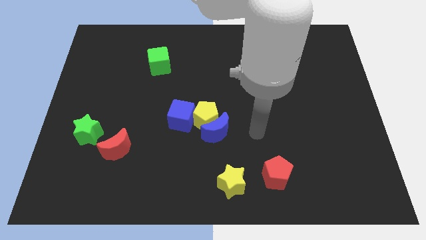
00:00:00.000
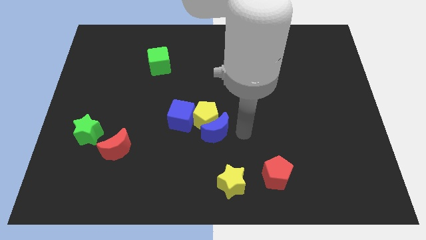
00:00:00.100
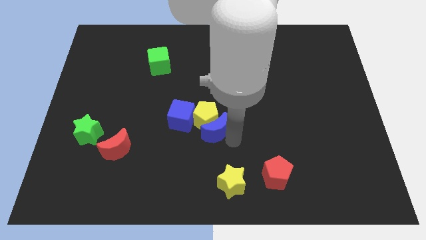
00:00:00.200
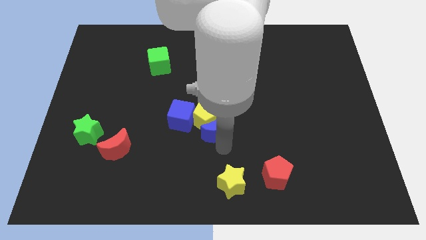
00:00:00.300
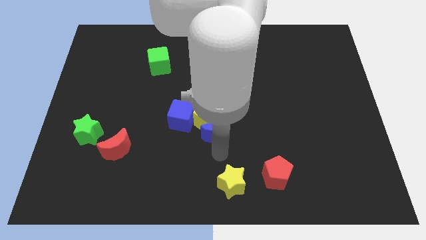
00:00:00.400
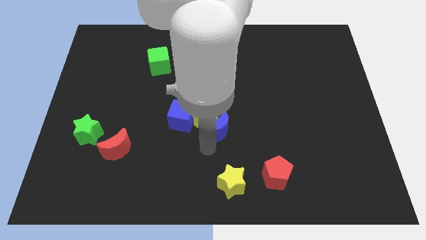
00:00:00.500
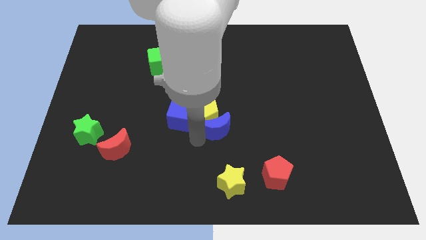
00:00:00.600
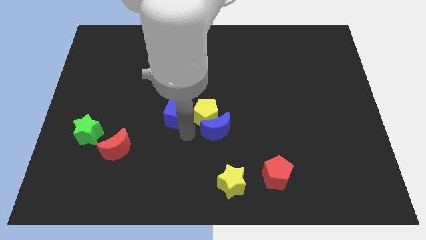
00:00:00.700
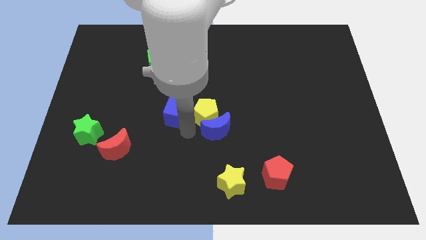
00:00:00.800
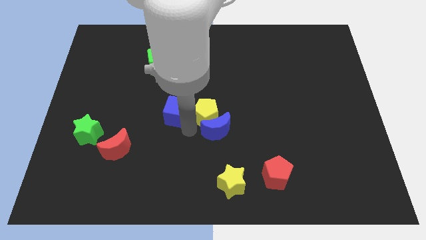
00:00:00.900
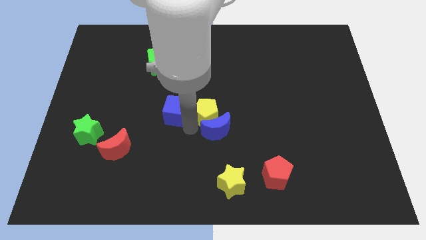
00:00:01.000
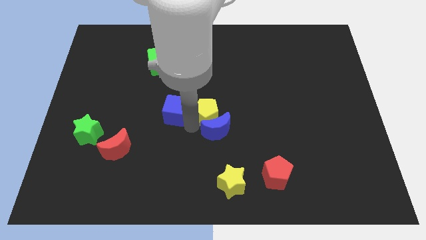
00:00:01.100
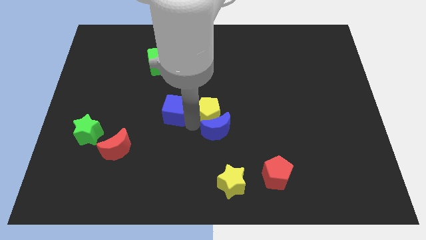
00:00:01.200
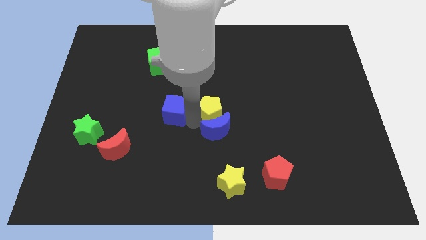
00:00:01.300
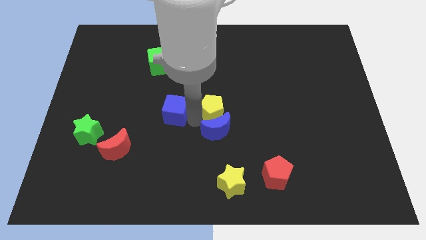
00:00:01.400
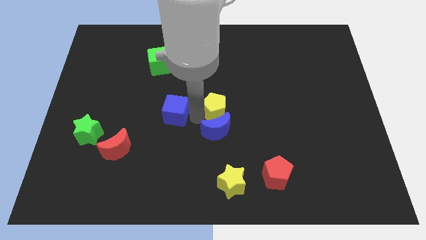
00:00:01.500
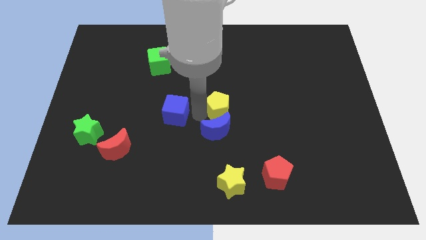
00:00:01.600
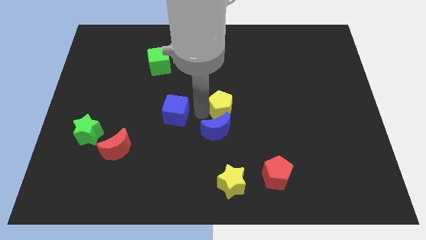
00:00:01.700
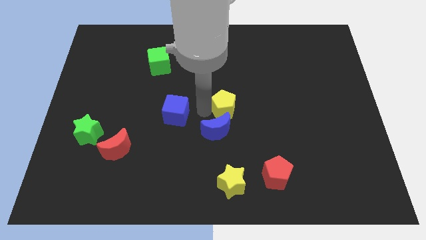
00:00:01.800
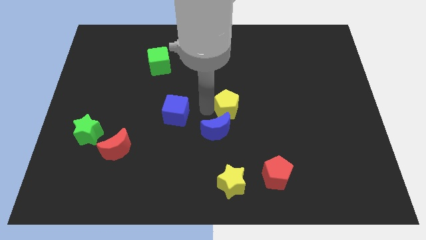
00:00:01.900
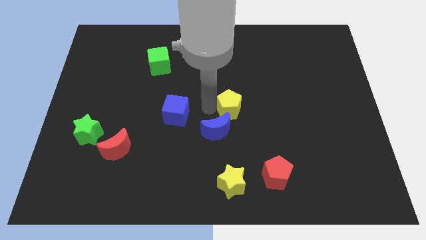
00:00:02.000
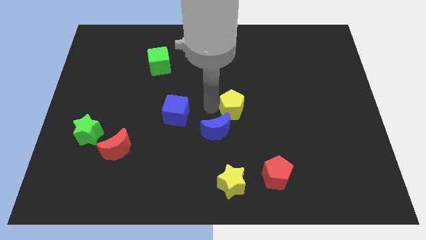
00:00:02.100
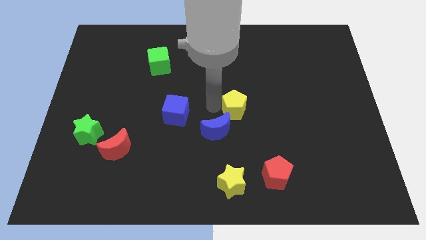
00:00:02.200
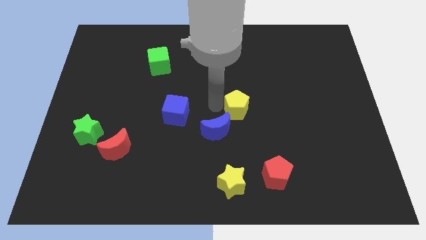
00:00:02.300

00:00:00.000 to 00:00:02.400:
move the yellow pentagon away from the blue moon and blue cube

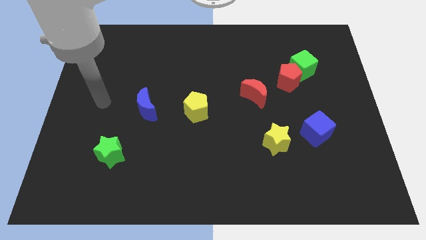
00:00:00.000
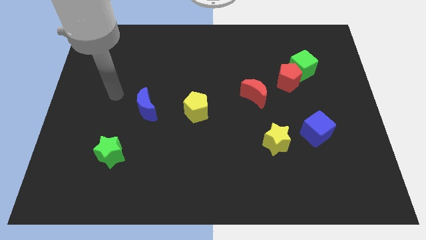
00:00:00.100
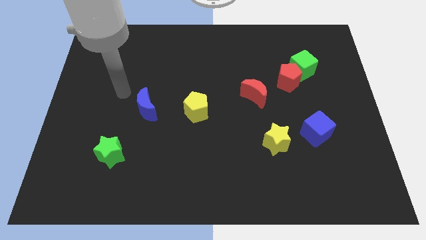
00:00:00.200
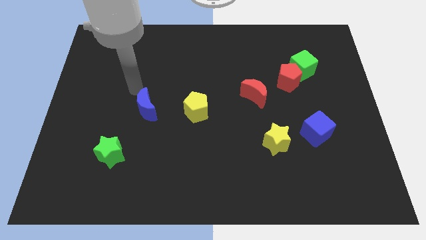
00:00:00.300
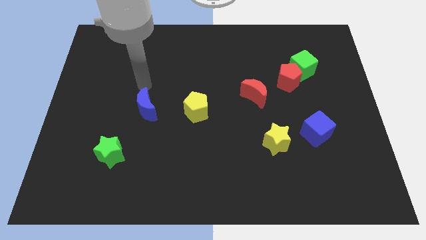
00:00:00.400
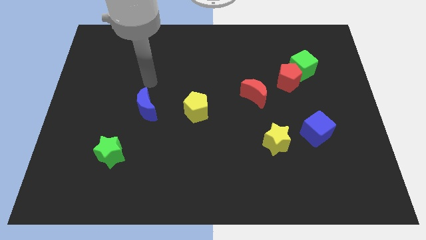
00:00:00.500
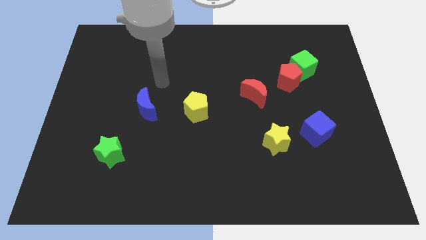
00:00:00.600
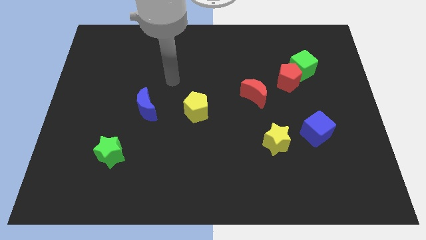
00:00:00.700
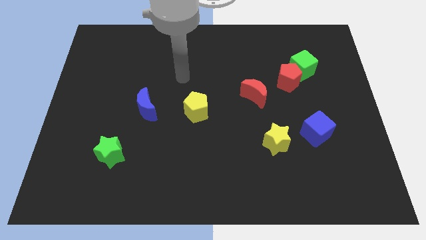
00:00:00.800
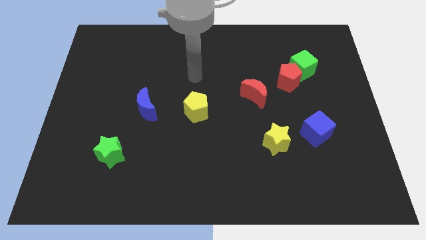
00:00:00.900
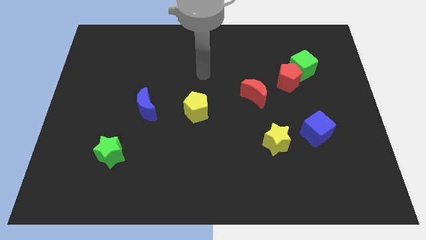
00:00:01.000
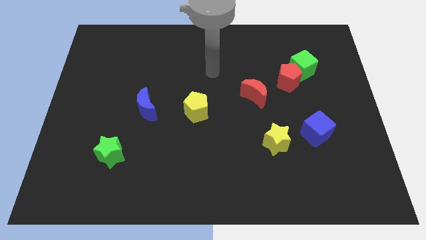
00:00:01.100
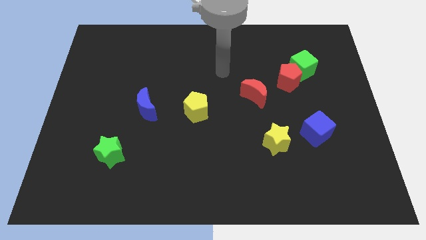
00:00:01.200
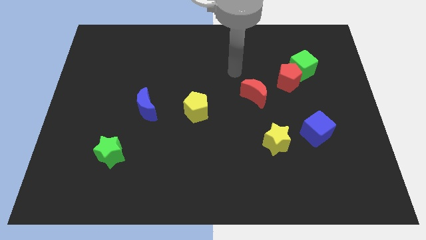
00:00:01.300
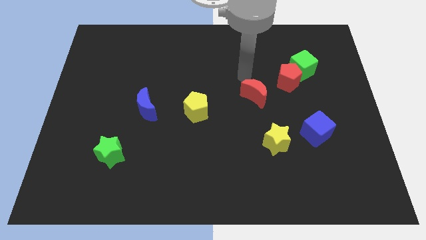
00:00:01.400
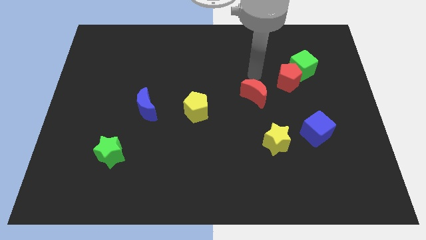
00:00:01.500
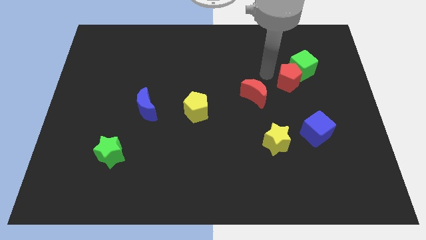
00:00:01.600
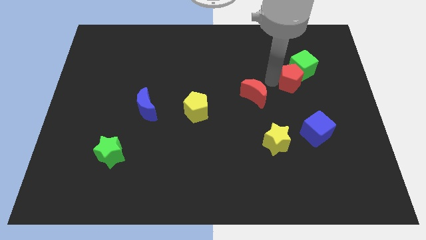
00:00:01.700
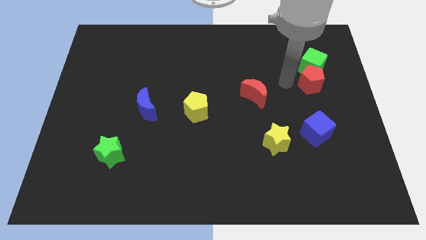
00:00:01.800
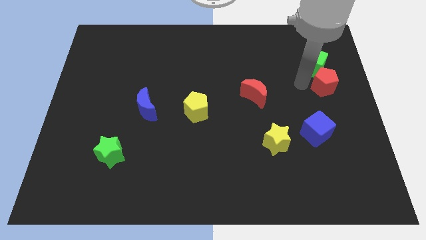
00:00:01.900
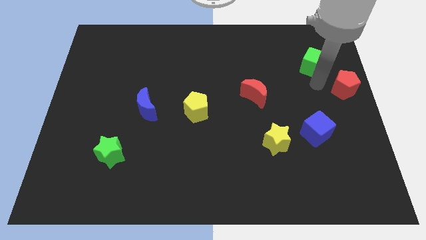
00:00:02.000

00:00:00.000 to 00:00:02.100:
pull the green cube apart from the red pentagon

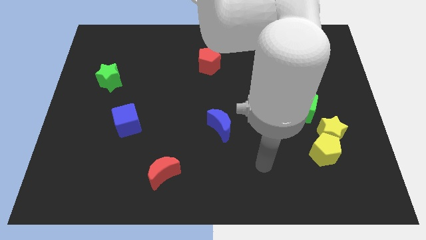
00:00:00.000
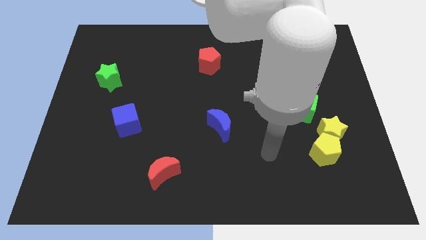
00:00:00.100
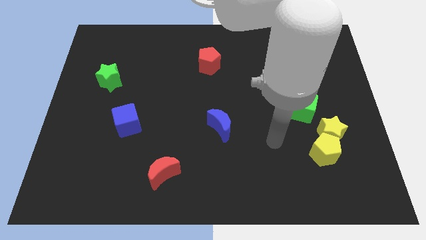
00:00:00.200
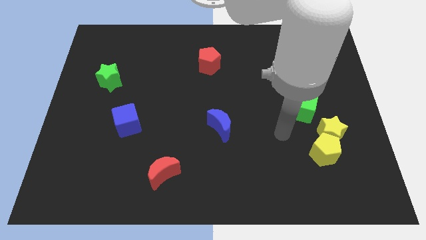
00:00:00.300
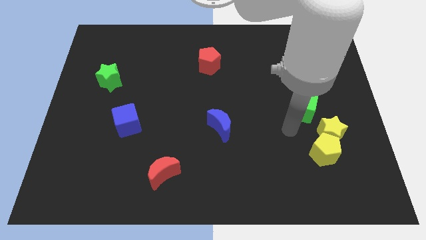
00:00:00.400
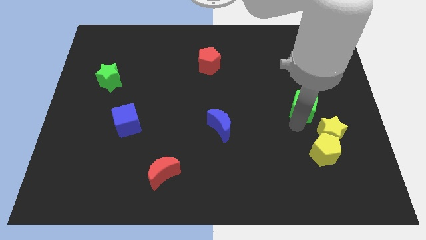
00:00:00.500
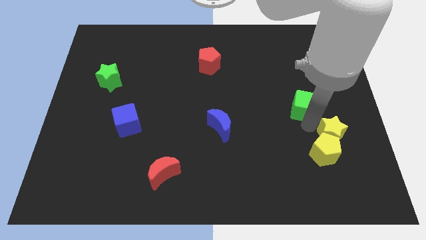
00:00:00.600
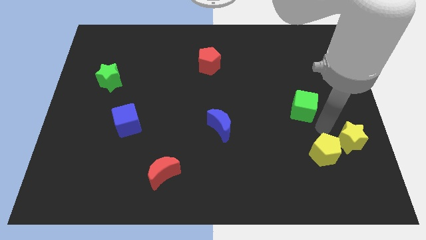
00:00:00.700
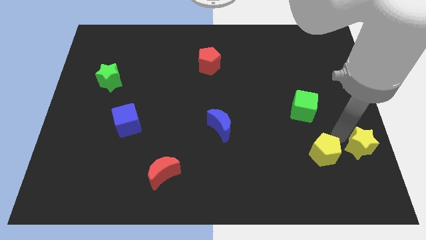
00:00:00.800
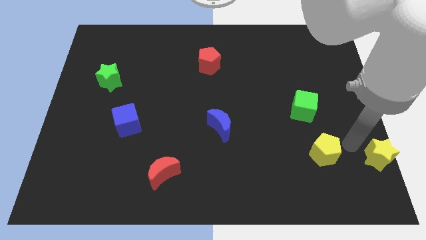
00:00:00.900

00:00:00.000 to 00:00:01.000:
move the yellow pentagon away from the yellow star

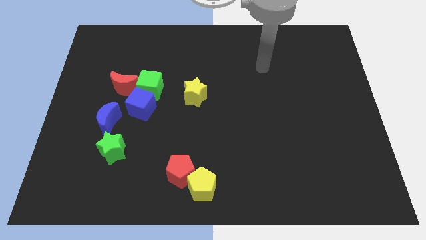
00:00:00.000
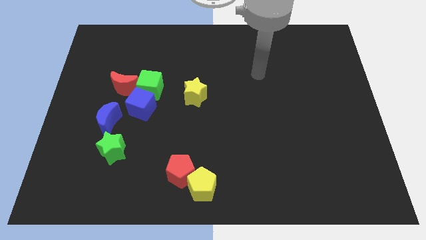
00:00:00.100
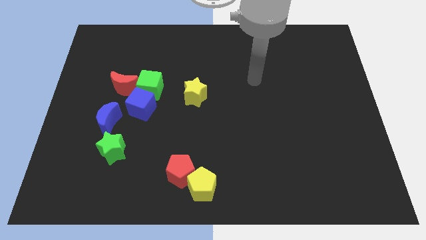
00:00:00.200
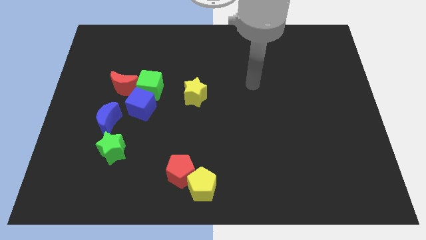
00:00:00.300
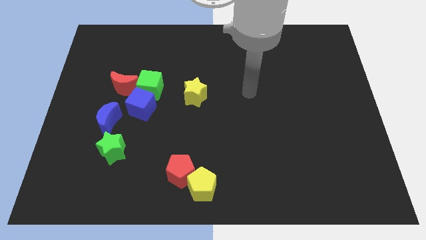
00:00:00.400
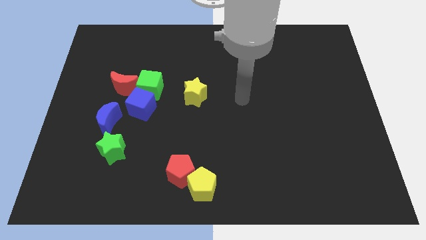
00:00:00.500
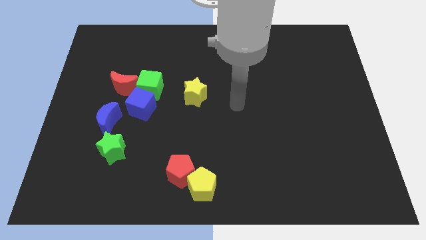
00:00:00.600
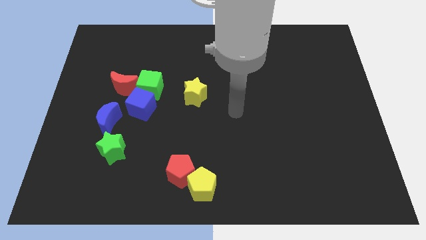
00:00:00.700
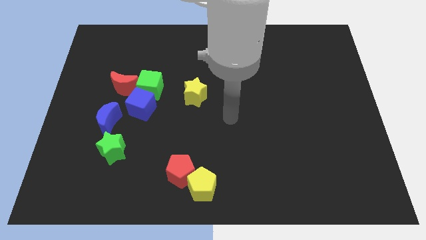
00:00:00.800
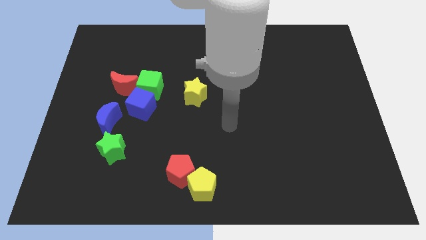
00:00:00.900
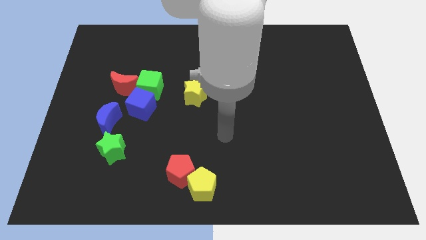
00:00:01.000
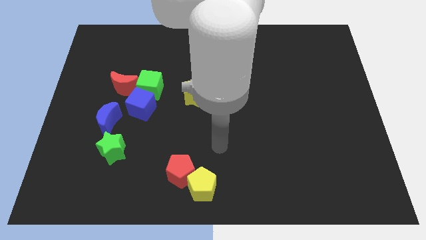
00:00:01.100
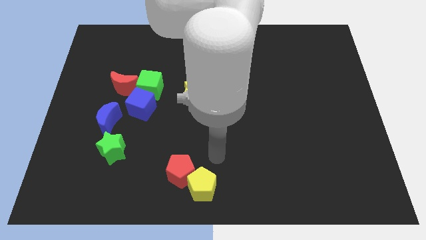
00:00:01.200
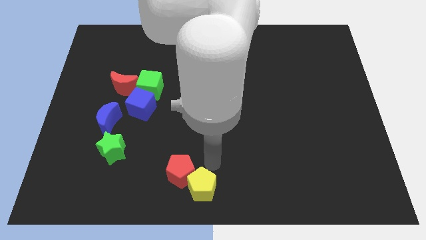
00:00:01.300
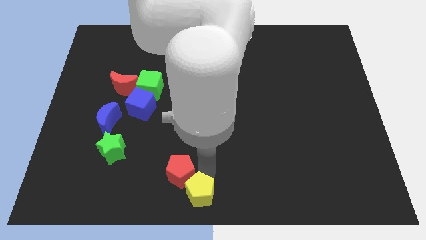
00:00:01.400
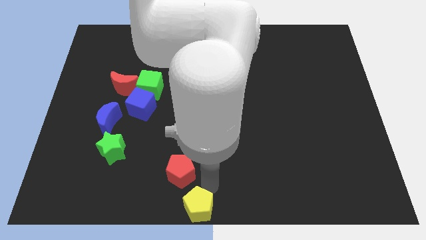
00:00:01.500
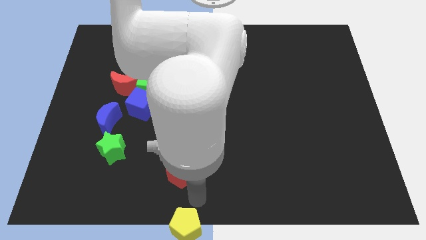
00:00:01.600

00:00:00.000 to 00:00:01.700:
pull the red pentagon apart from the yellow pentagon

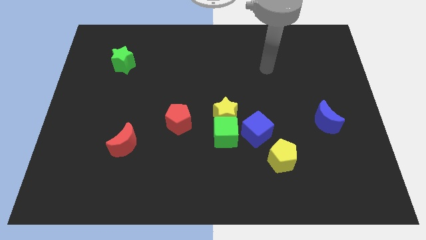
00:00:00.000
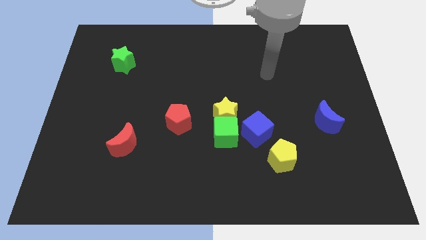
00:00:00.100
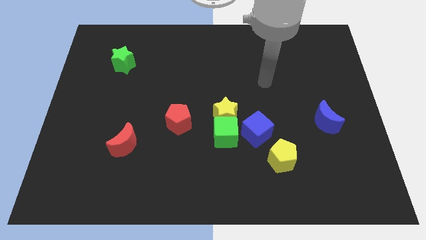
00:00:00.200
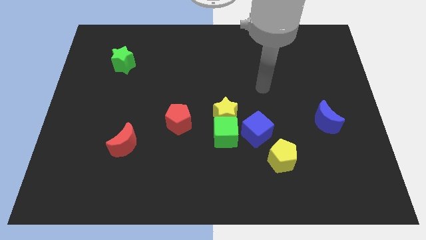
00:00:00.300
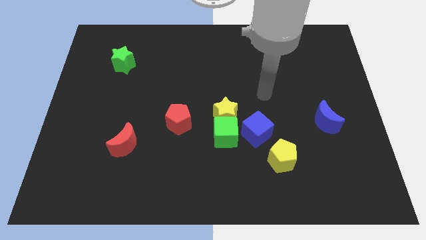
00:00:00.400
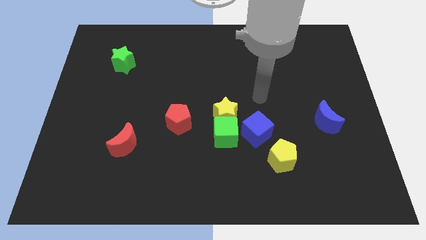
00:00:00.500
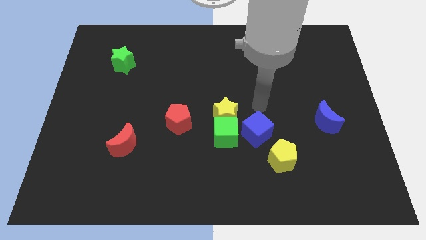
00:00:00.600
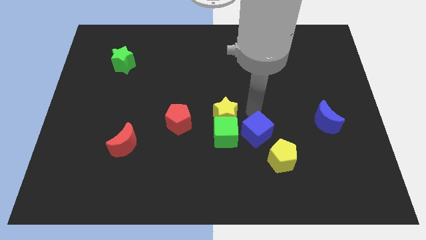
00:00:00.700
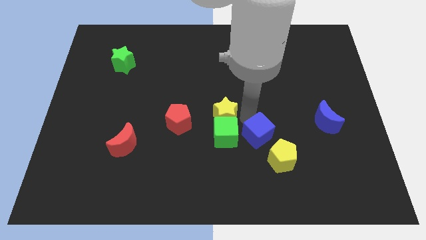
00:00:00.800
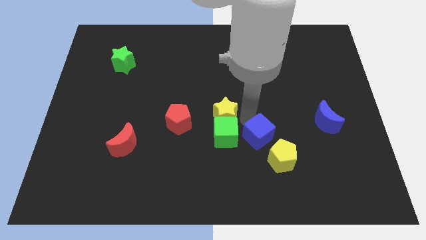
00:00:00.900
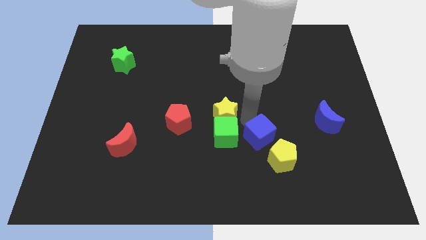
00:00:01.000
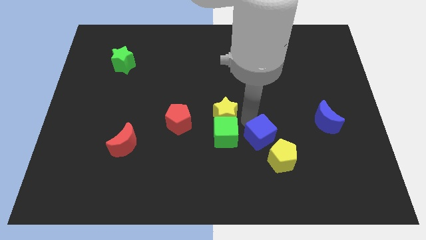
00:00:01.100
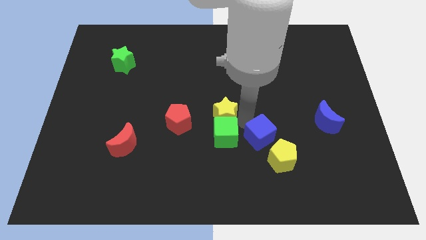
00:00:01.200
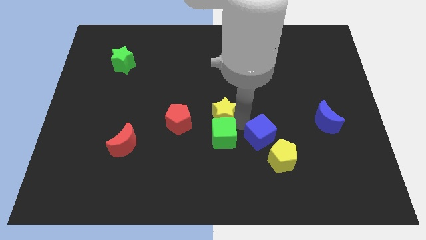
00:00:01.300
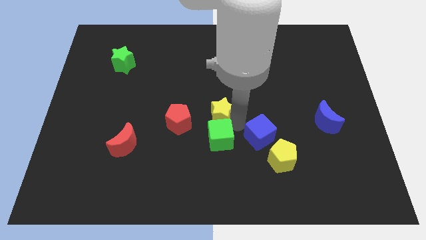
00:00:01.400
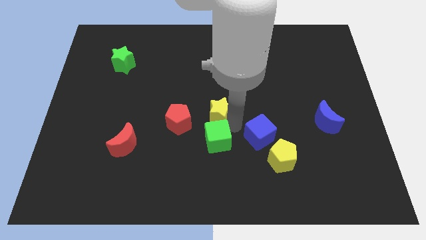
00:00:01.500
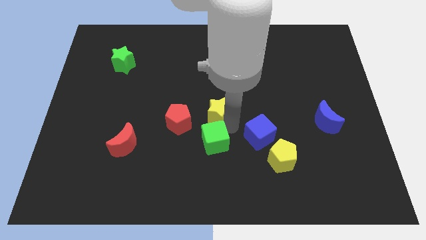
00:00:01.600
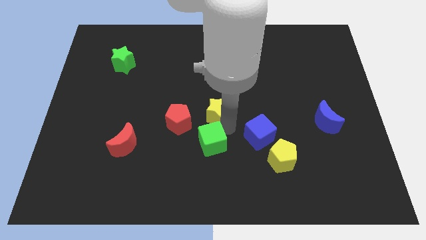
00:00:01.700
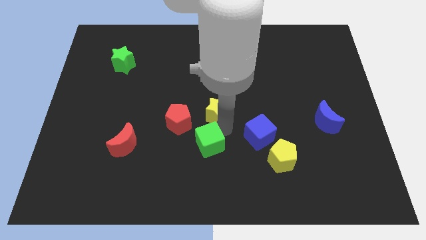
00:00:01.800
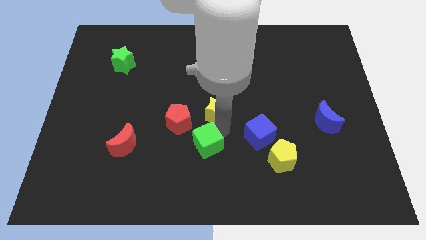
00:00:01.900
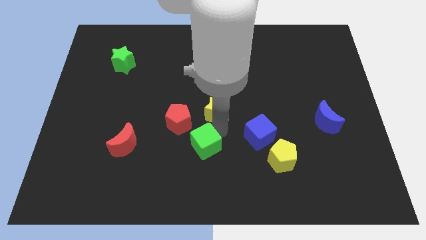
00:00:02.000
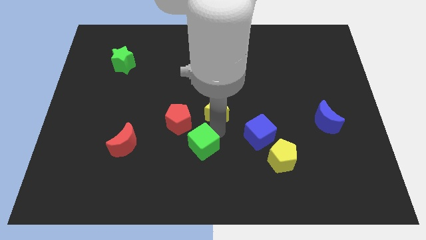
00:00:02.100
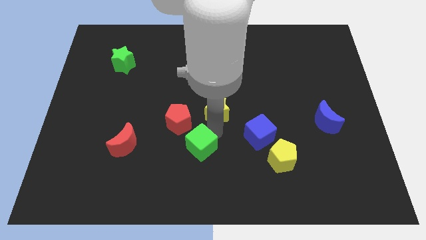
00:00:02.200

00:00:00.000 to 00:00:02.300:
separate the green cube from the yellow star and blue cube
